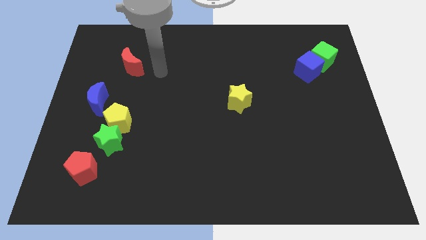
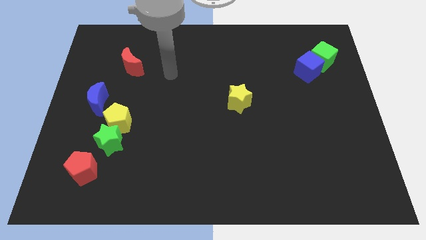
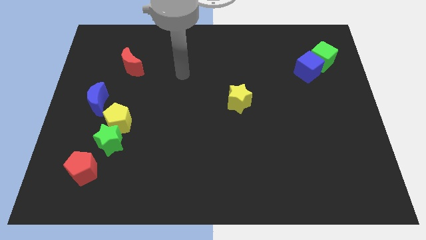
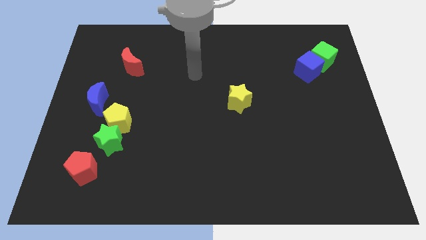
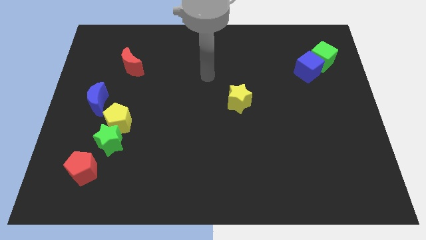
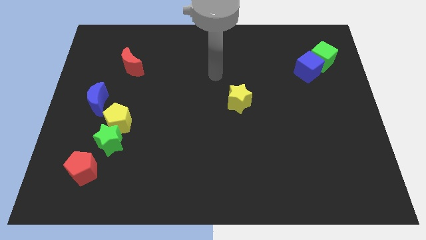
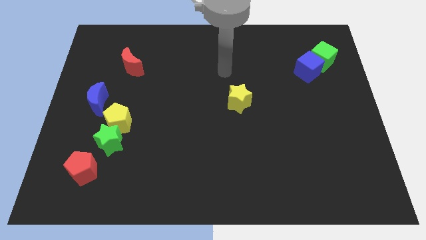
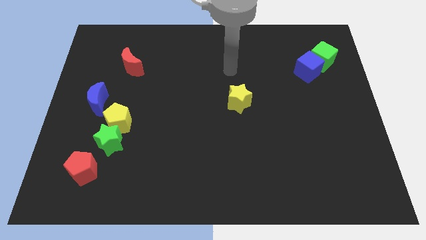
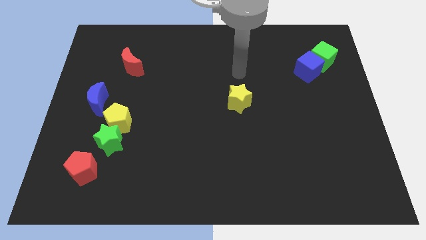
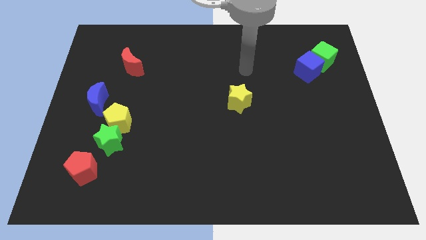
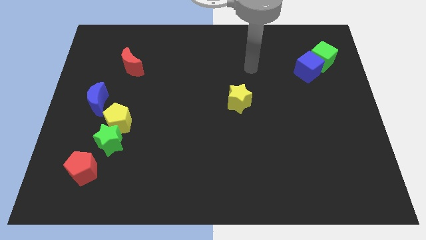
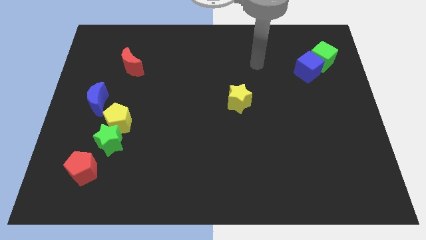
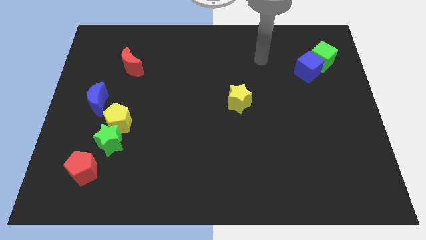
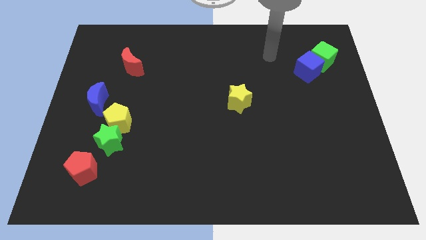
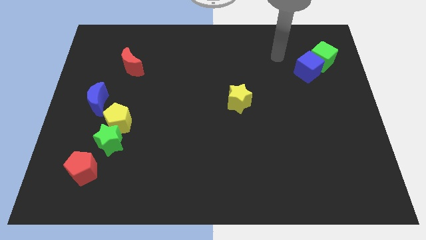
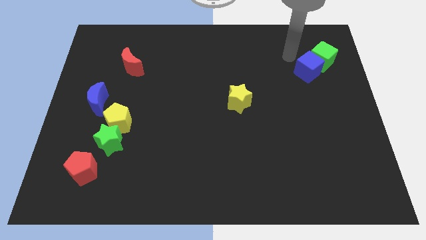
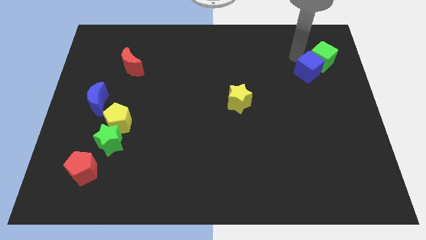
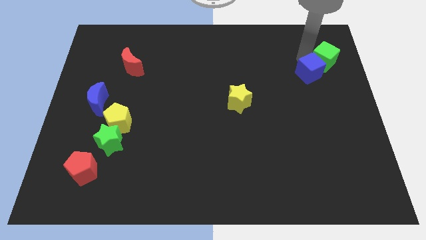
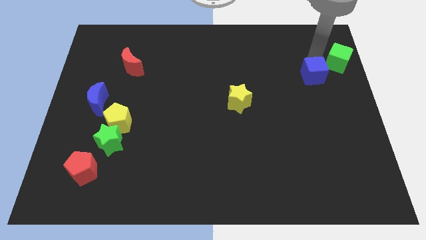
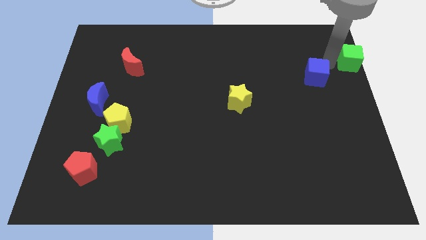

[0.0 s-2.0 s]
move the blue cube away from the green cube

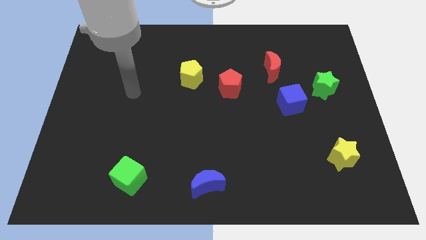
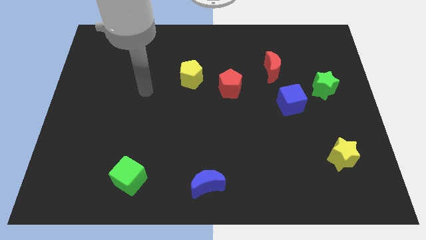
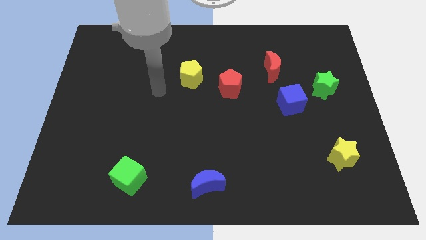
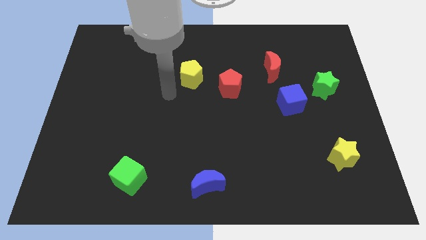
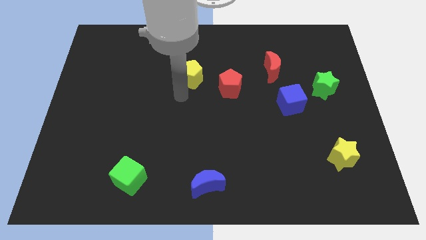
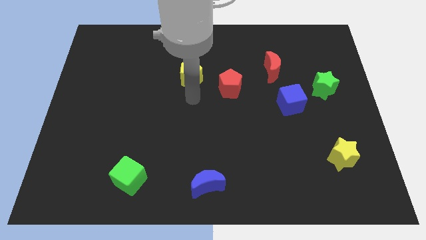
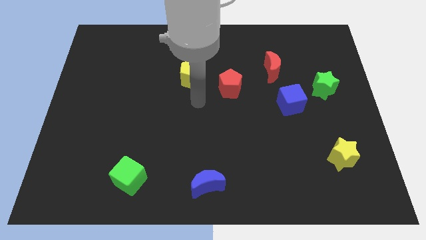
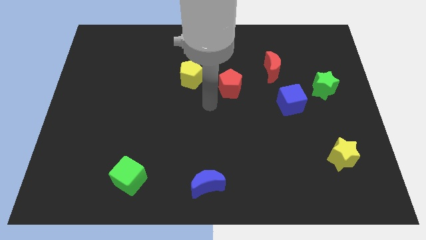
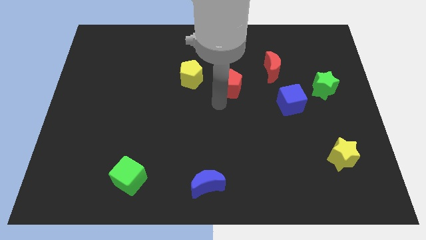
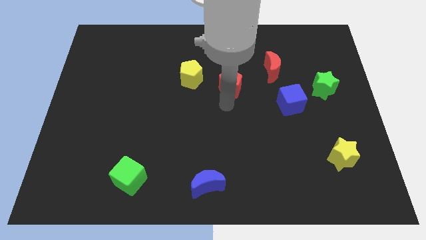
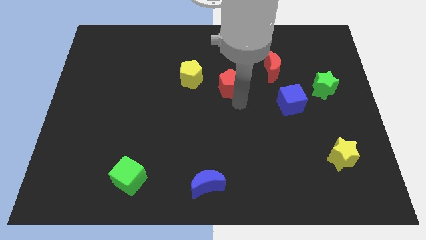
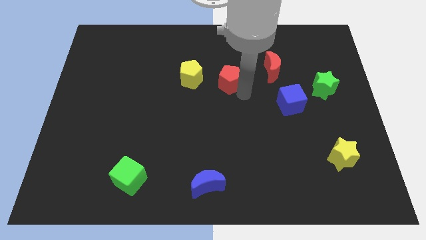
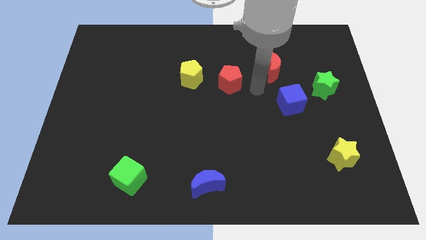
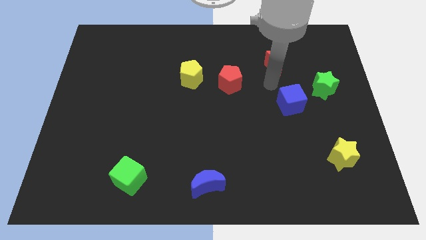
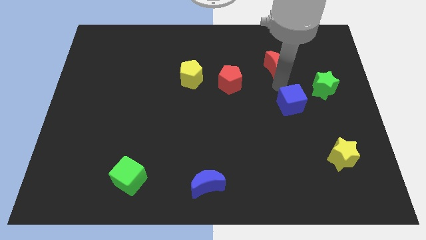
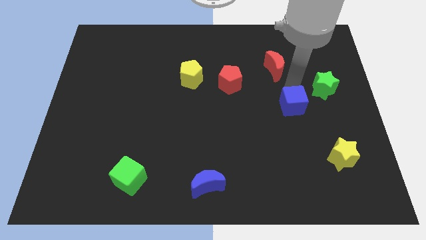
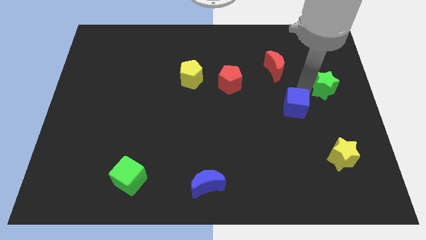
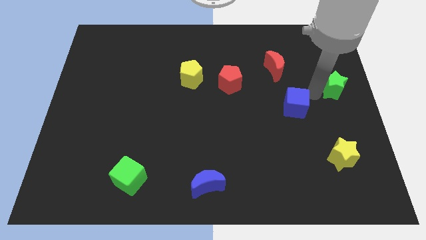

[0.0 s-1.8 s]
pull the blue cube apart from the green star

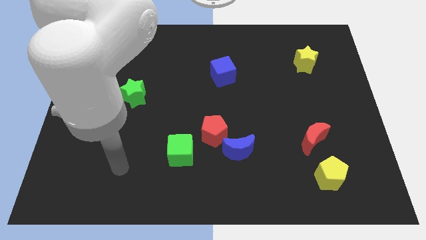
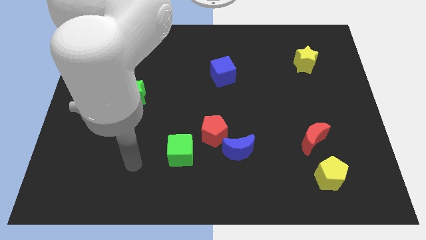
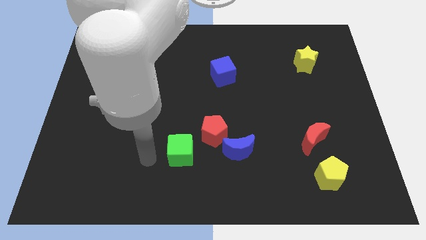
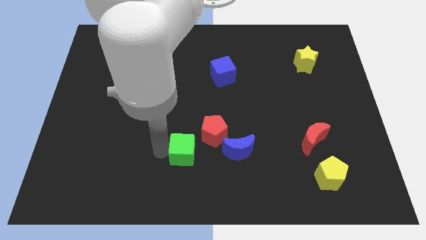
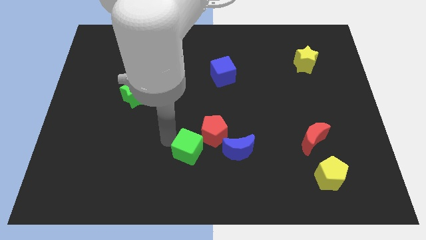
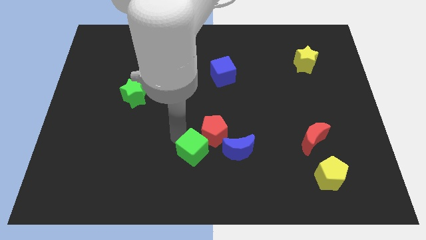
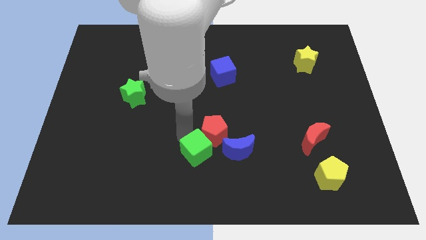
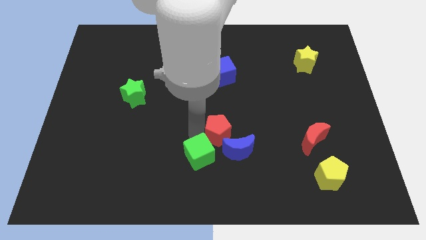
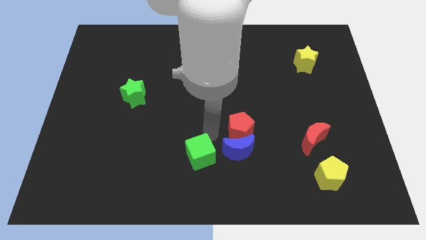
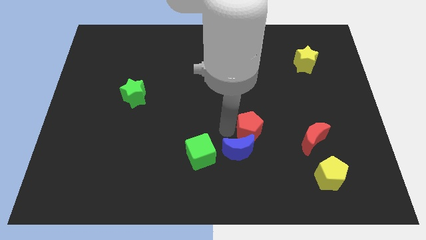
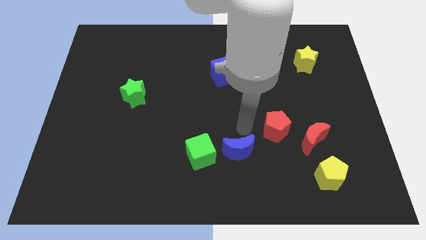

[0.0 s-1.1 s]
pull the blue moon apart from the red pentagon

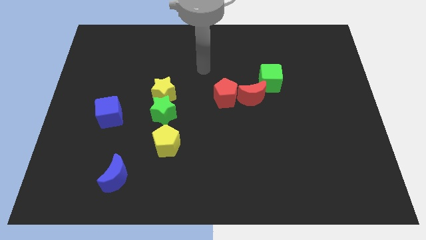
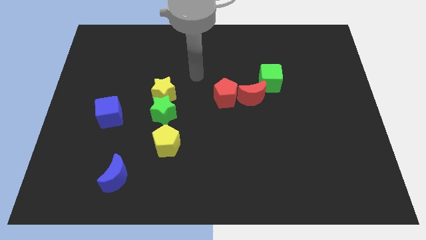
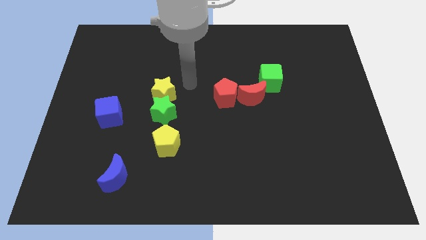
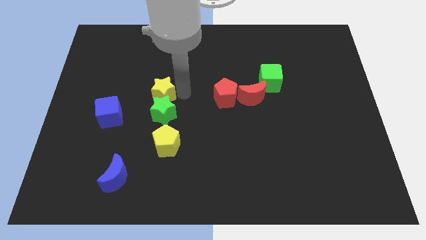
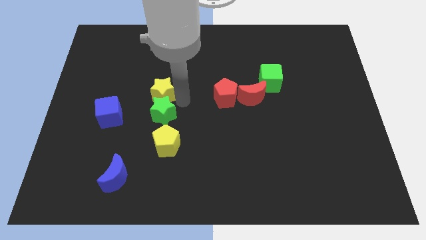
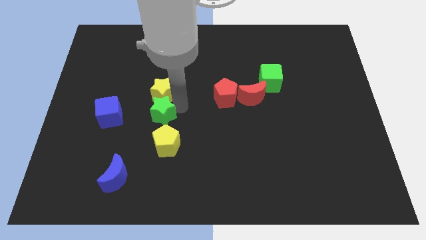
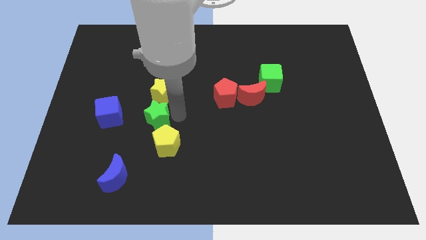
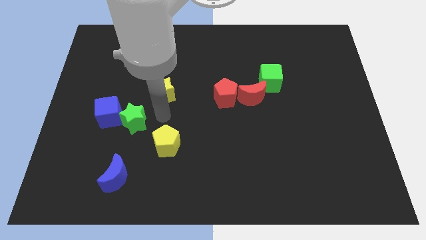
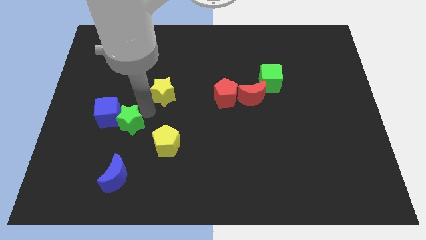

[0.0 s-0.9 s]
pull the yellow star apart from the green star

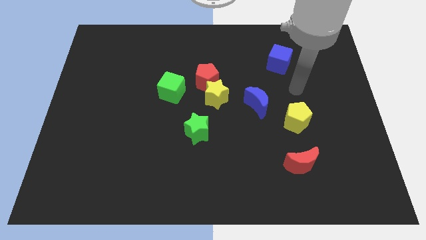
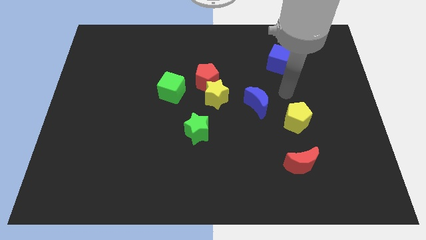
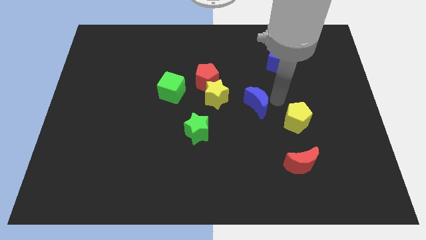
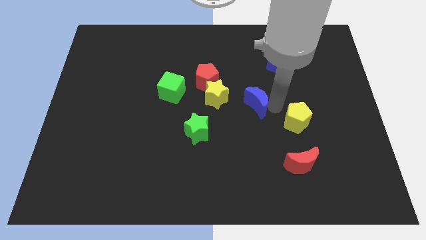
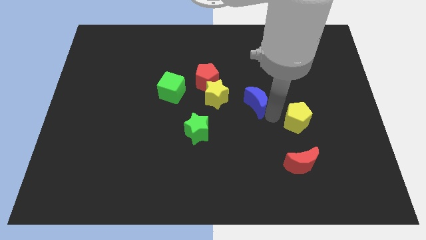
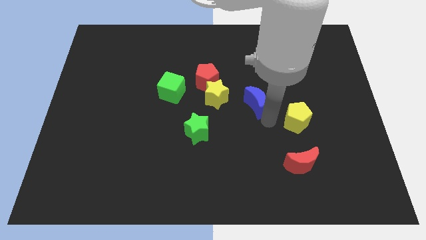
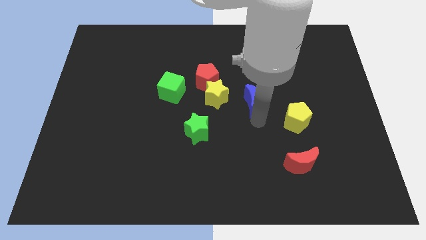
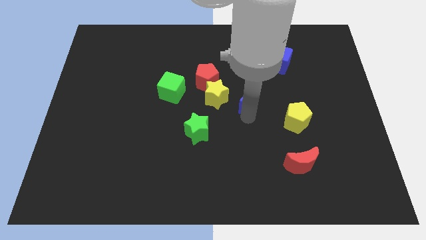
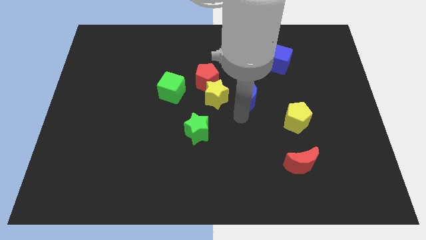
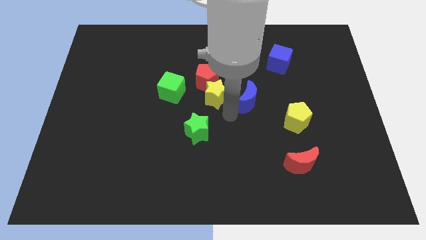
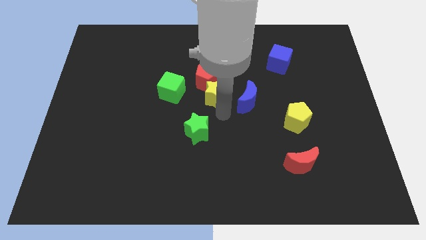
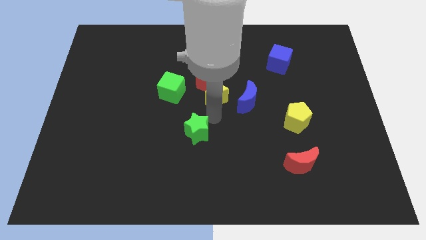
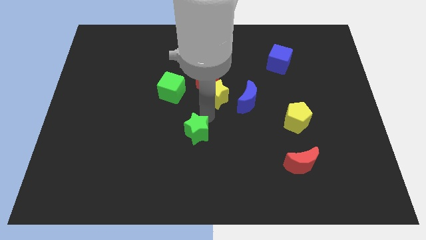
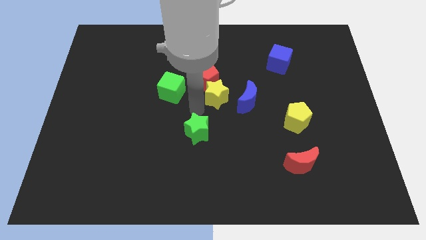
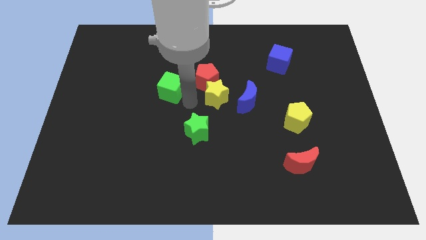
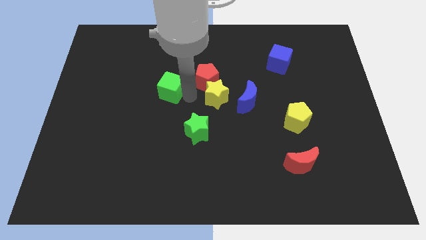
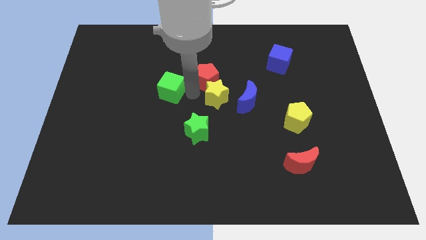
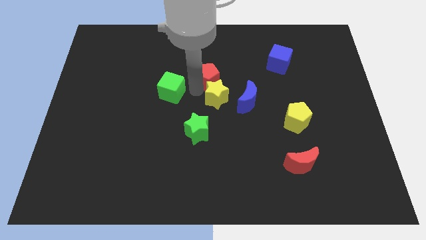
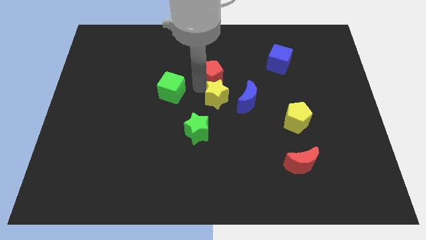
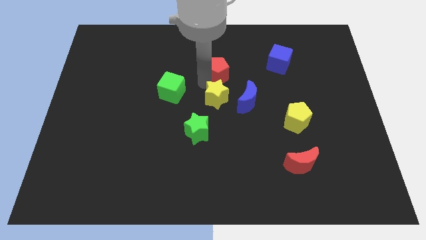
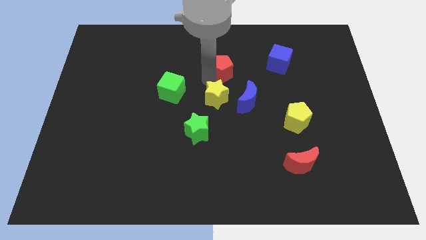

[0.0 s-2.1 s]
separate the red pentagon from the yellow star and green cube

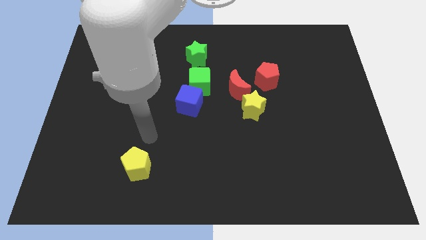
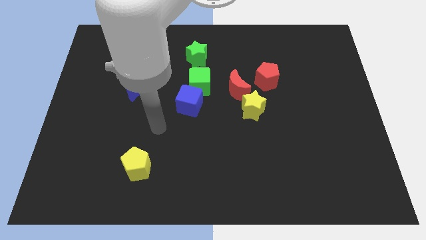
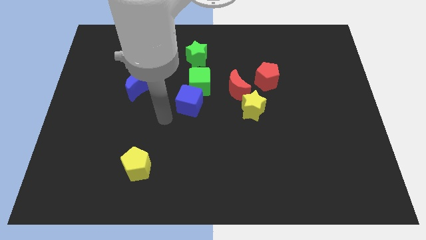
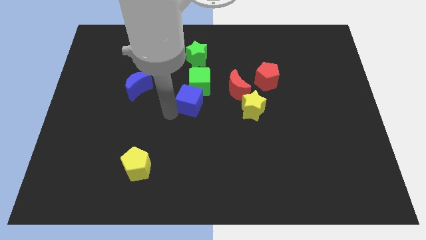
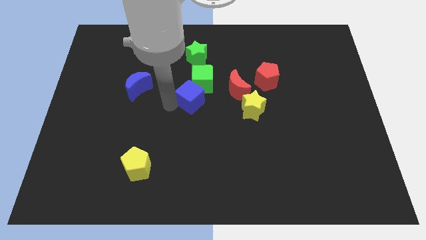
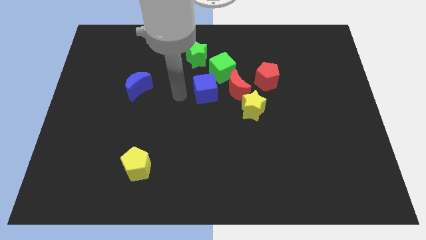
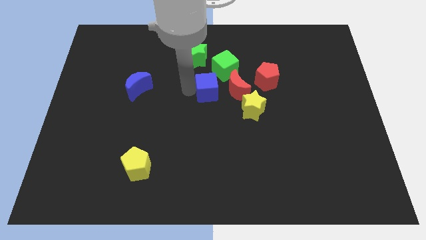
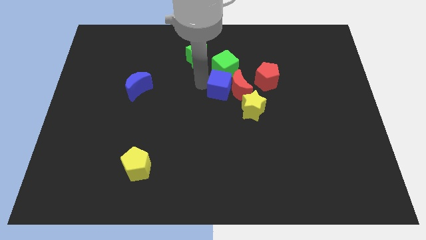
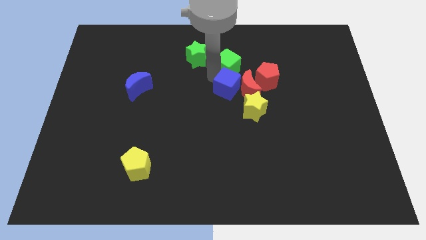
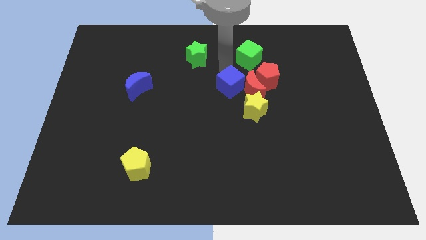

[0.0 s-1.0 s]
separate the blue cube from the green cube

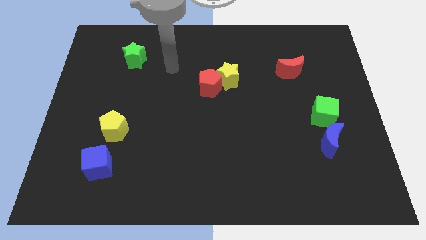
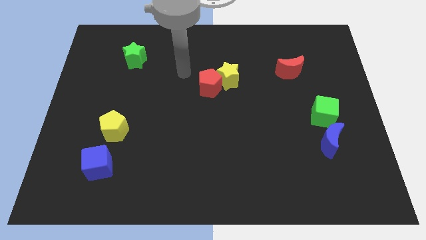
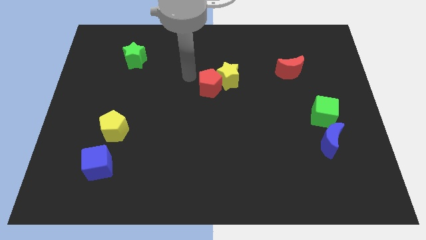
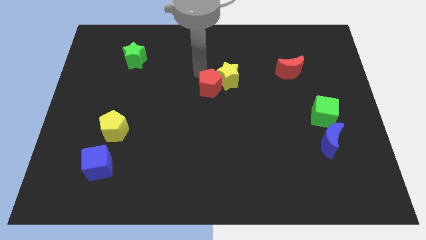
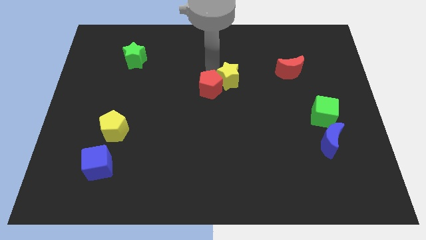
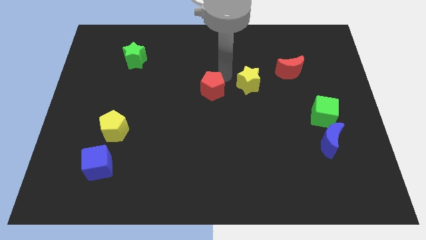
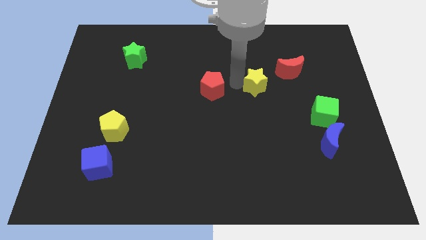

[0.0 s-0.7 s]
pull the red pentagon apart from the yellow star
